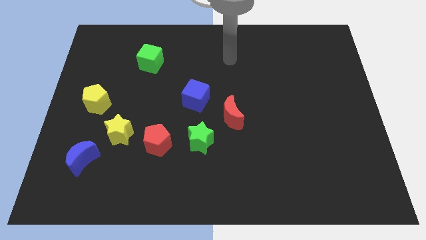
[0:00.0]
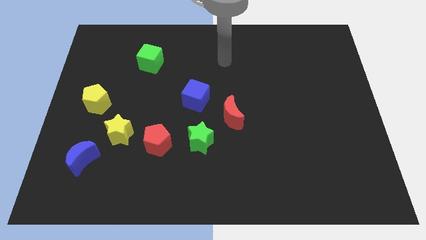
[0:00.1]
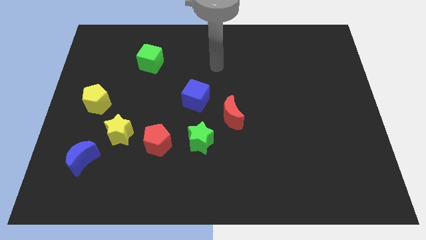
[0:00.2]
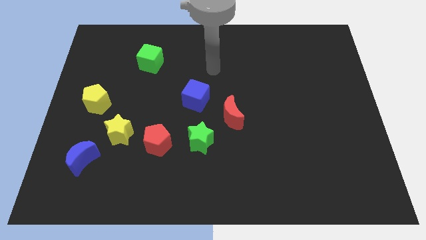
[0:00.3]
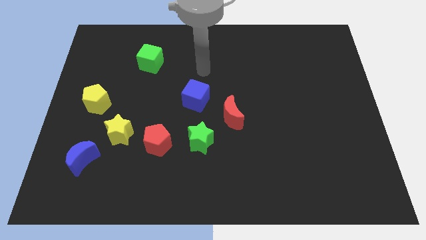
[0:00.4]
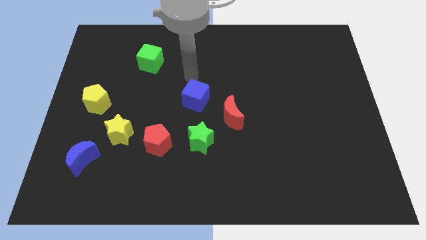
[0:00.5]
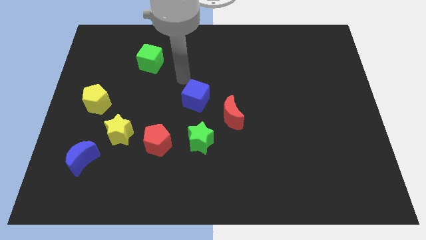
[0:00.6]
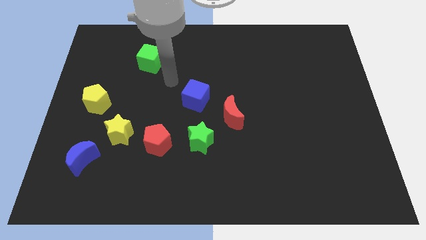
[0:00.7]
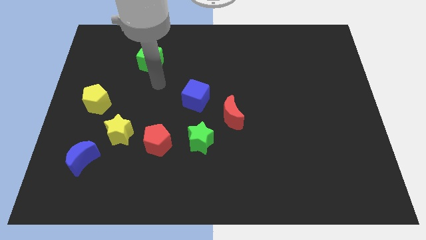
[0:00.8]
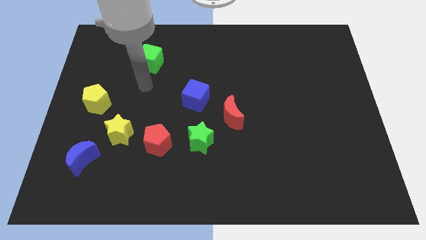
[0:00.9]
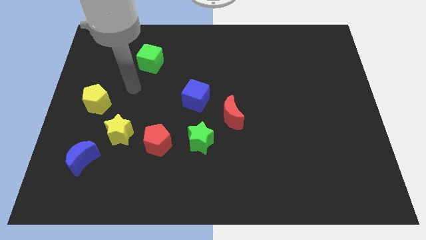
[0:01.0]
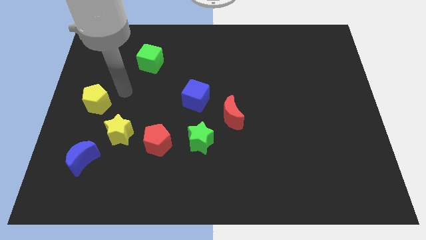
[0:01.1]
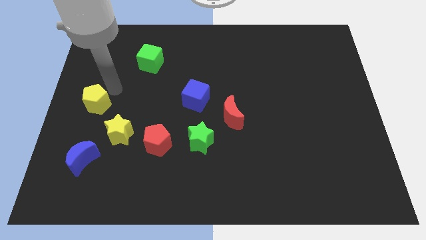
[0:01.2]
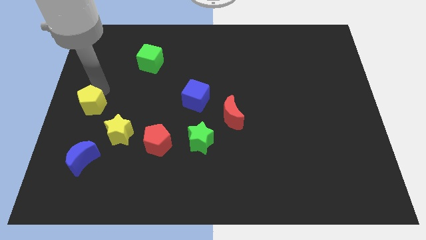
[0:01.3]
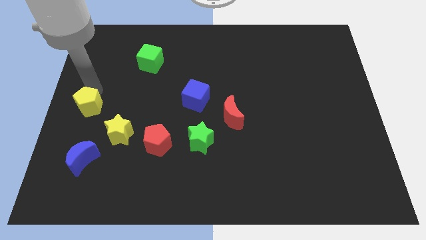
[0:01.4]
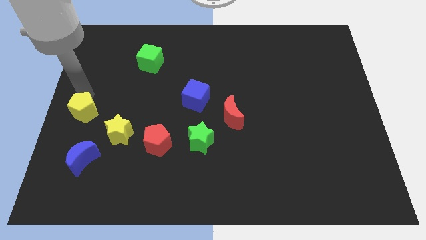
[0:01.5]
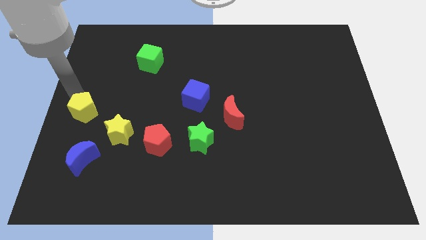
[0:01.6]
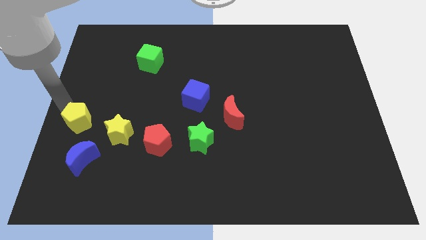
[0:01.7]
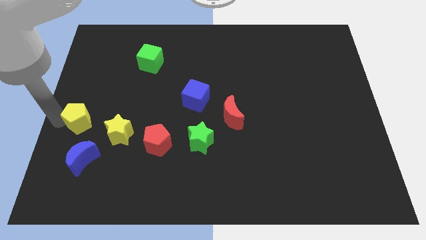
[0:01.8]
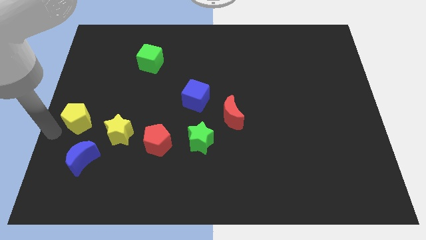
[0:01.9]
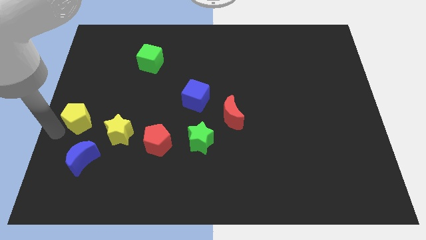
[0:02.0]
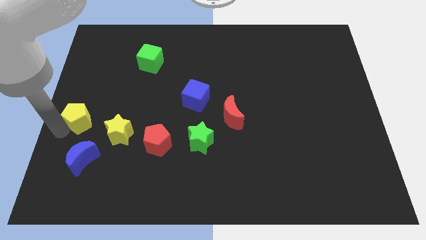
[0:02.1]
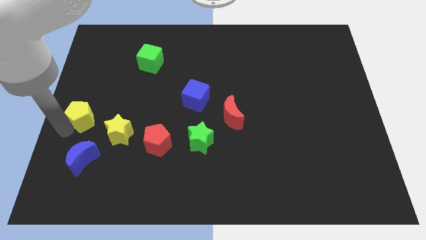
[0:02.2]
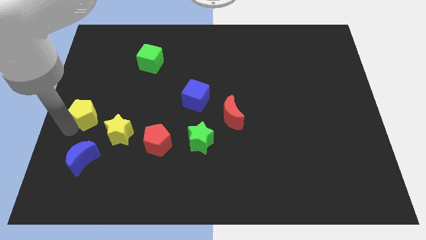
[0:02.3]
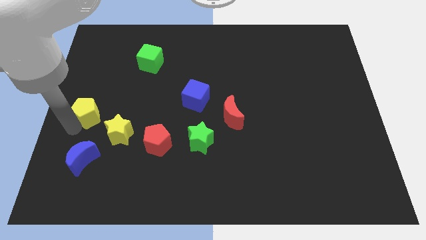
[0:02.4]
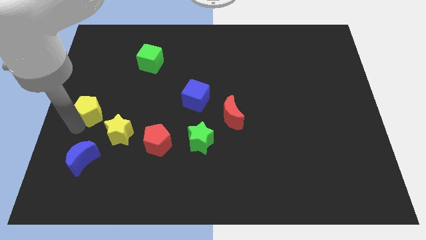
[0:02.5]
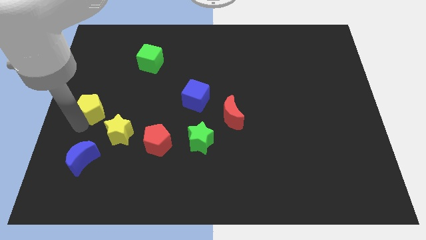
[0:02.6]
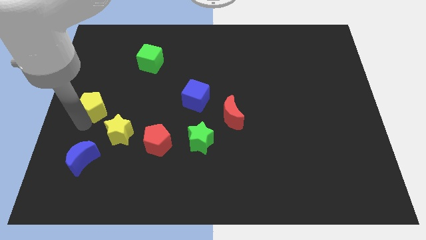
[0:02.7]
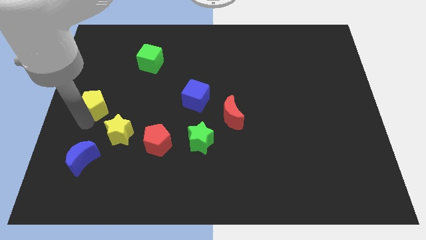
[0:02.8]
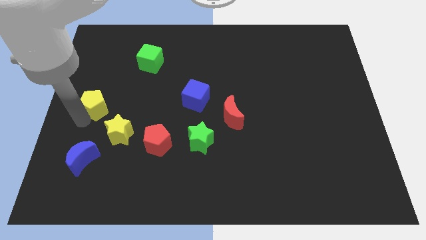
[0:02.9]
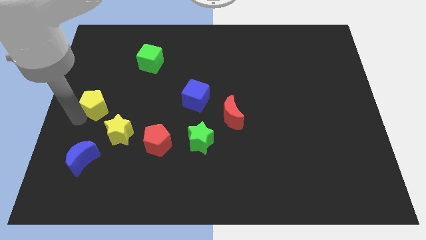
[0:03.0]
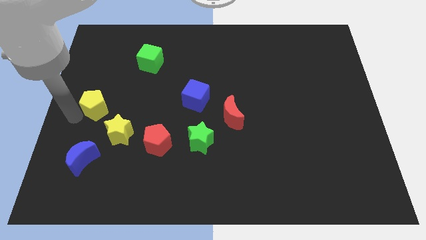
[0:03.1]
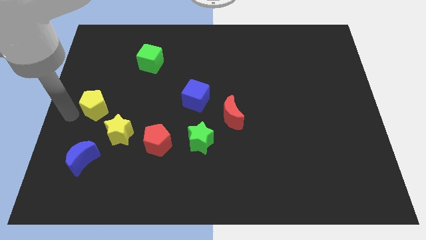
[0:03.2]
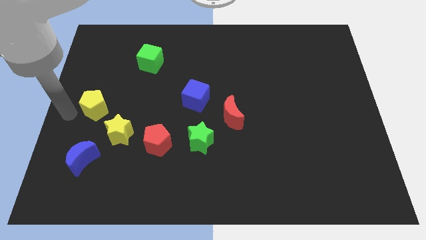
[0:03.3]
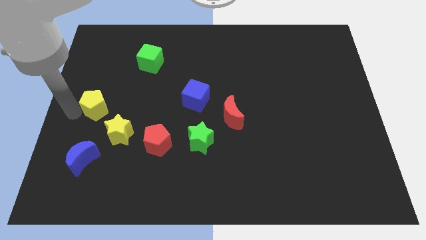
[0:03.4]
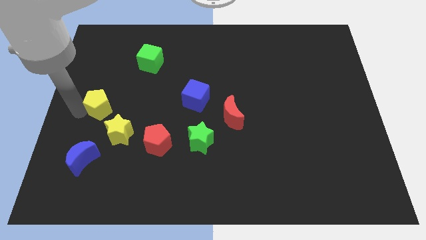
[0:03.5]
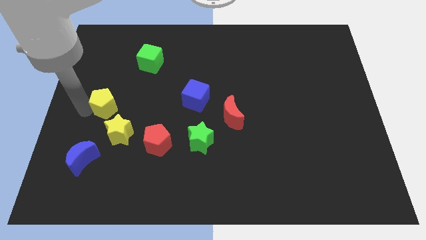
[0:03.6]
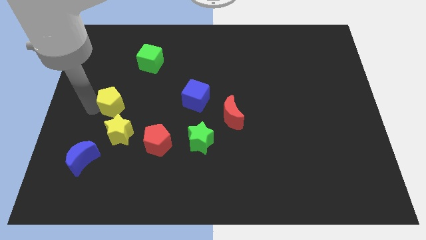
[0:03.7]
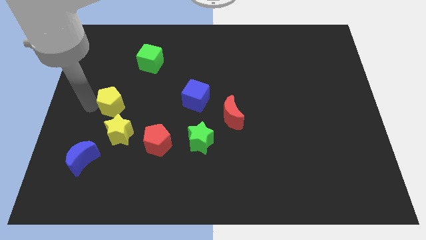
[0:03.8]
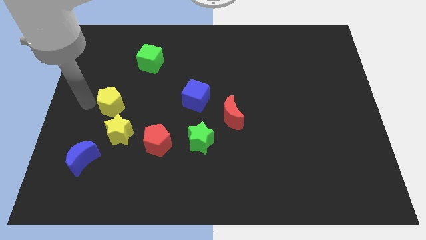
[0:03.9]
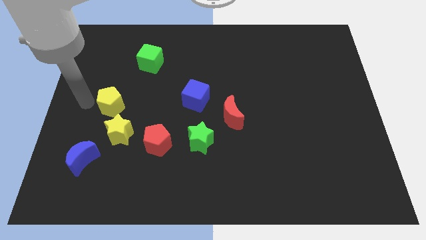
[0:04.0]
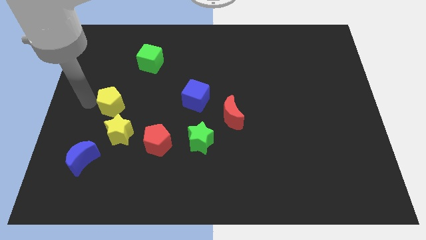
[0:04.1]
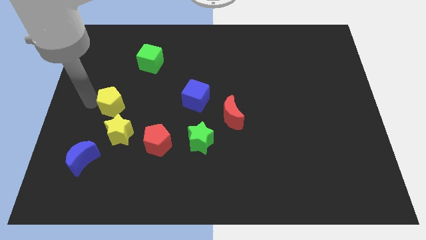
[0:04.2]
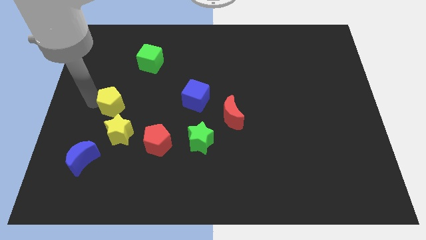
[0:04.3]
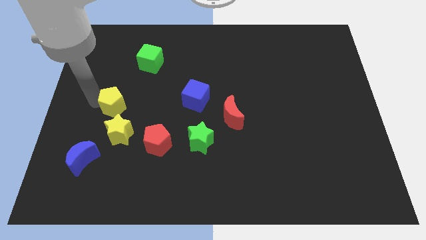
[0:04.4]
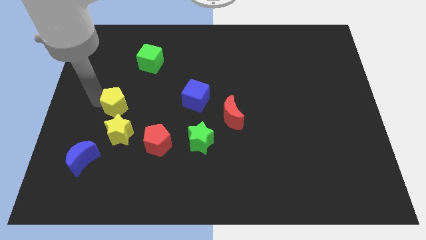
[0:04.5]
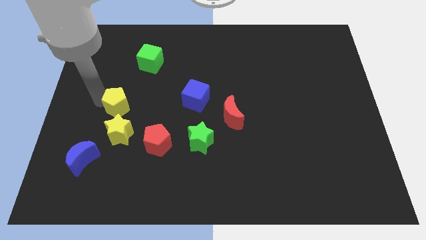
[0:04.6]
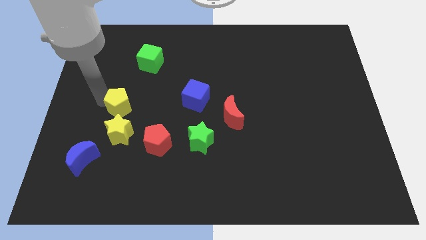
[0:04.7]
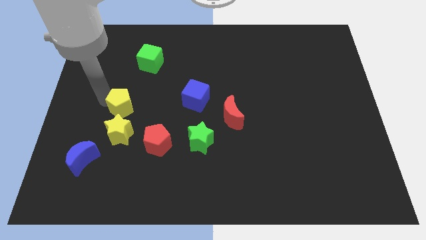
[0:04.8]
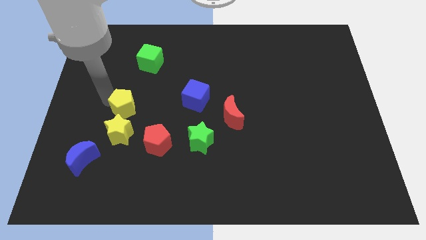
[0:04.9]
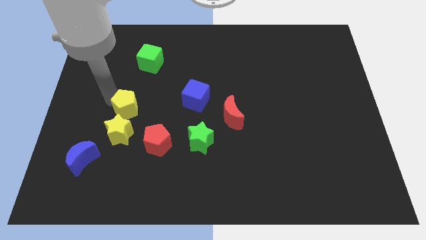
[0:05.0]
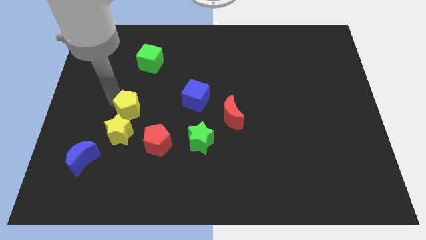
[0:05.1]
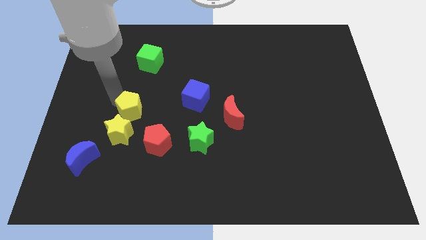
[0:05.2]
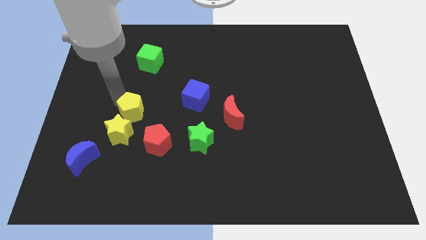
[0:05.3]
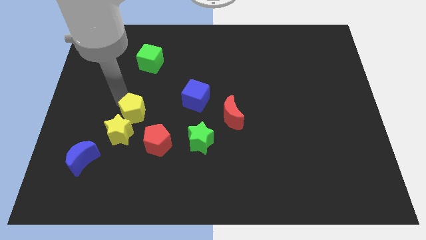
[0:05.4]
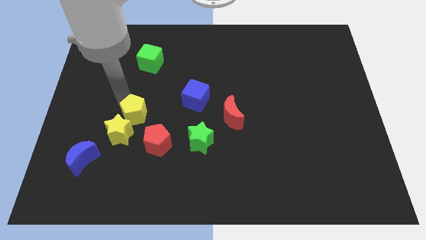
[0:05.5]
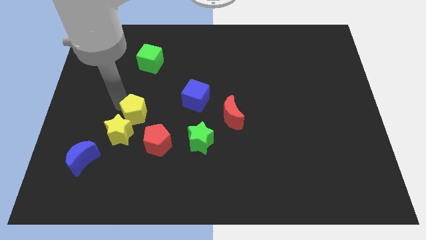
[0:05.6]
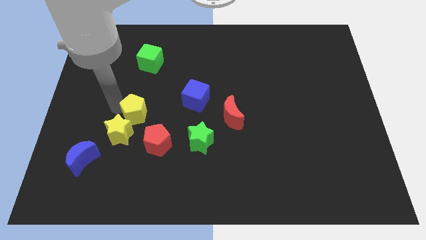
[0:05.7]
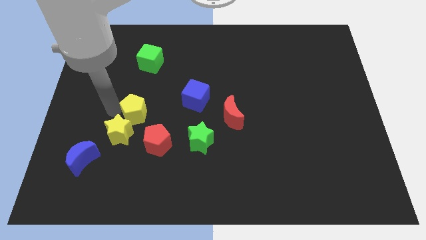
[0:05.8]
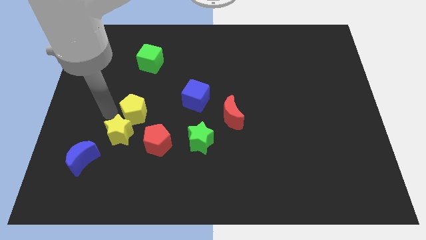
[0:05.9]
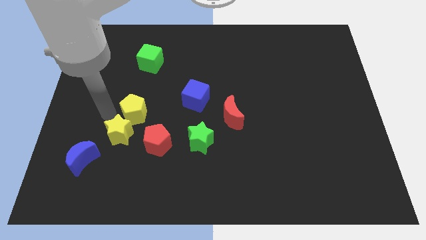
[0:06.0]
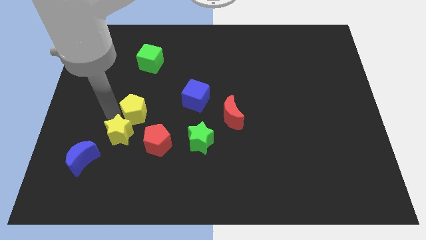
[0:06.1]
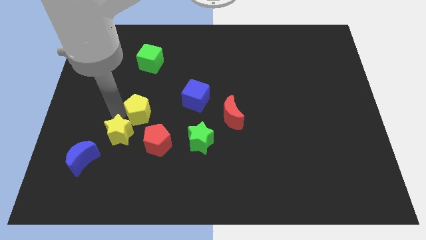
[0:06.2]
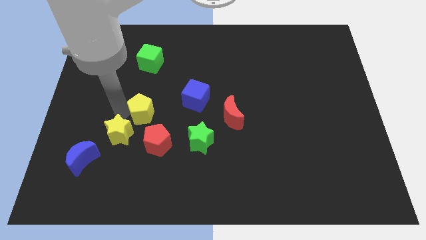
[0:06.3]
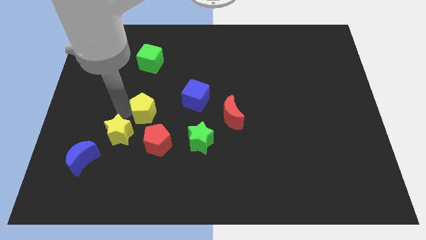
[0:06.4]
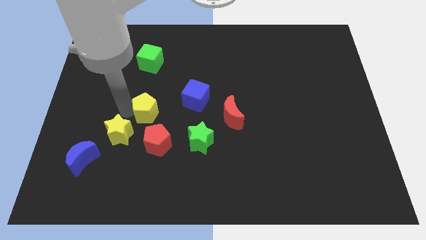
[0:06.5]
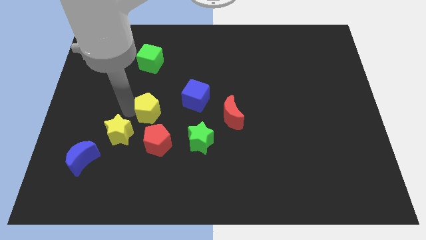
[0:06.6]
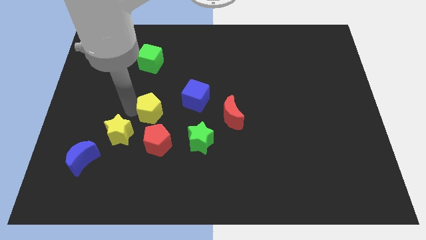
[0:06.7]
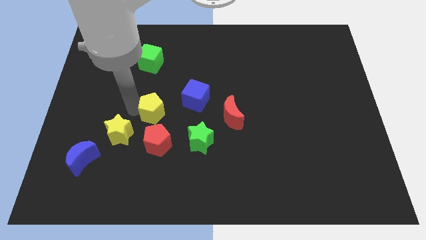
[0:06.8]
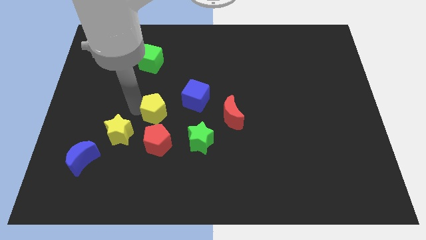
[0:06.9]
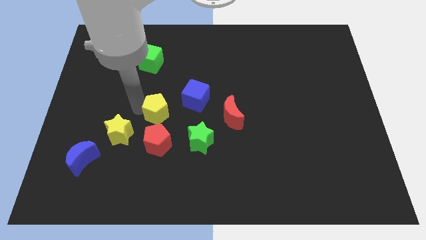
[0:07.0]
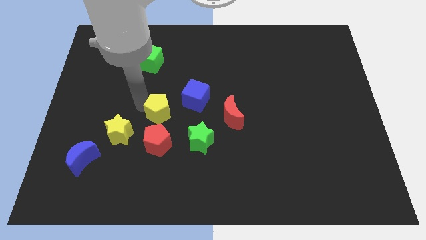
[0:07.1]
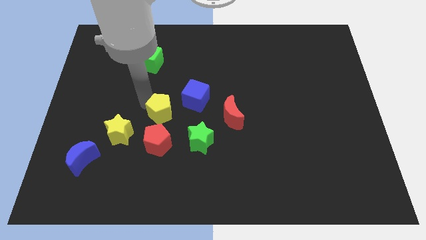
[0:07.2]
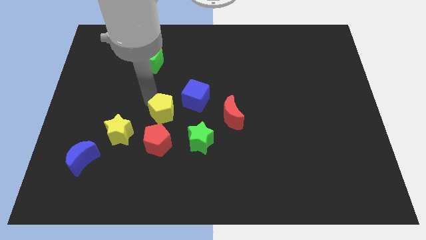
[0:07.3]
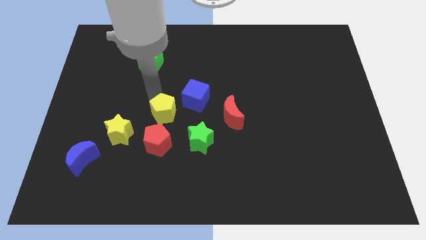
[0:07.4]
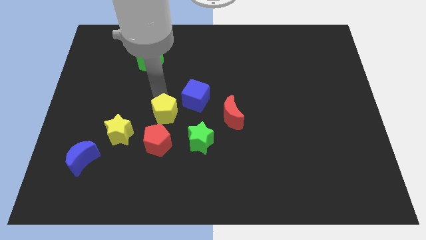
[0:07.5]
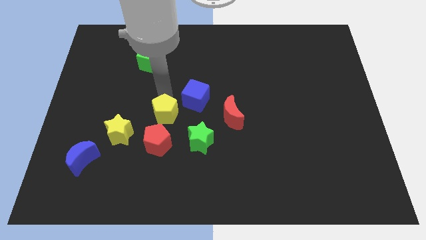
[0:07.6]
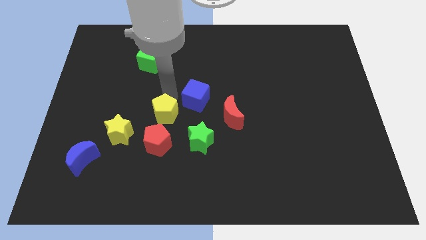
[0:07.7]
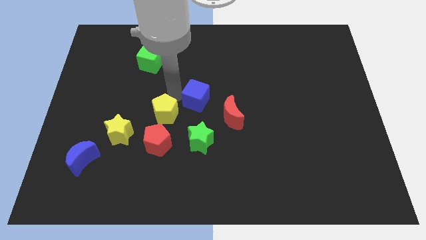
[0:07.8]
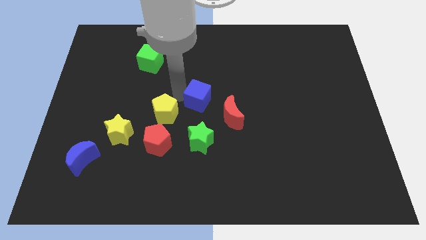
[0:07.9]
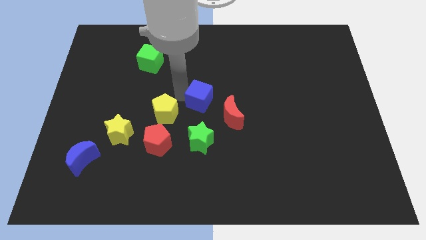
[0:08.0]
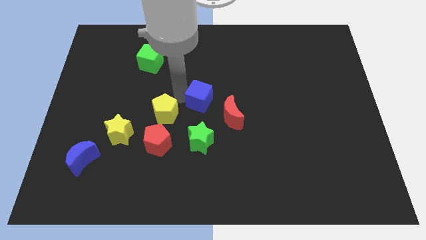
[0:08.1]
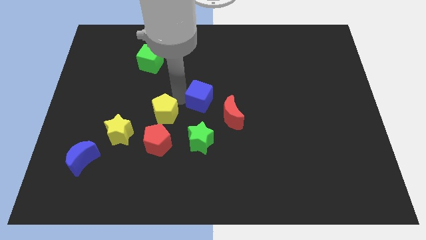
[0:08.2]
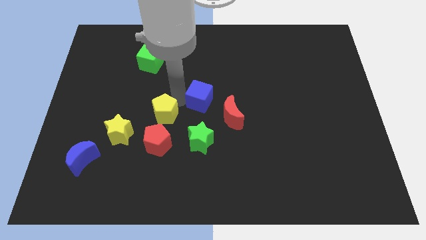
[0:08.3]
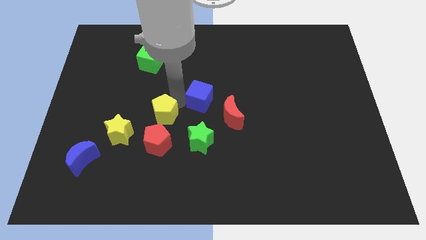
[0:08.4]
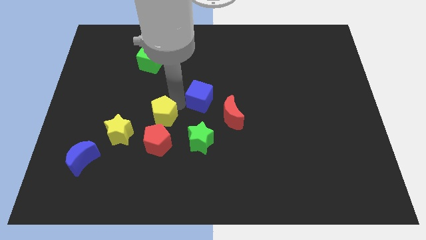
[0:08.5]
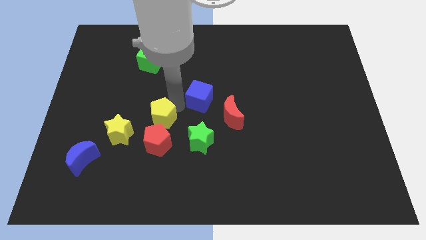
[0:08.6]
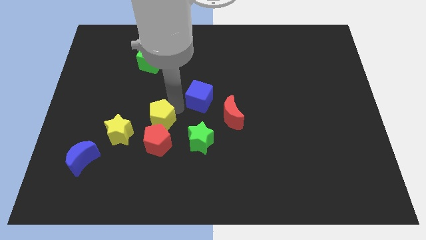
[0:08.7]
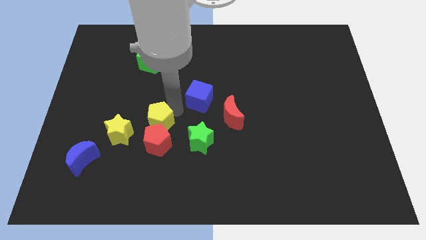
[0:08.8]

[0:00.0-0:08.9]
move the yellow pentagon towards the red pentagon
